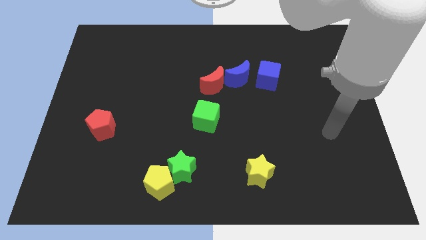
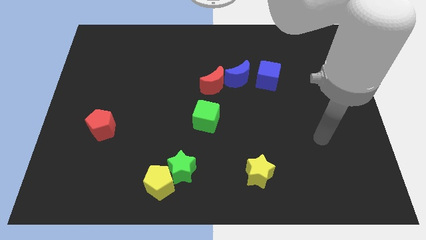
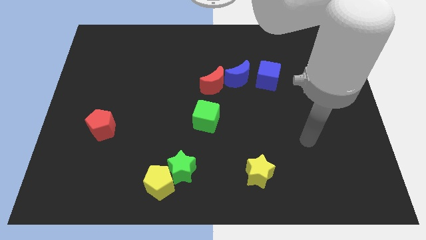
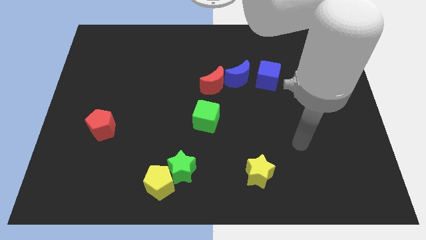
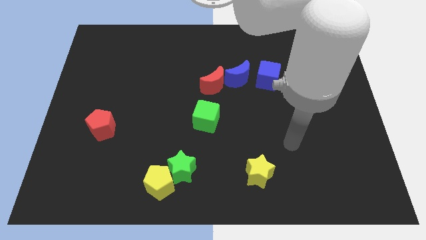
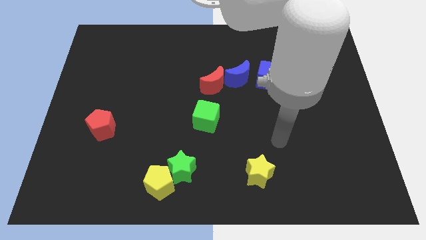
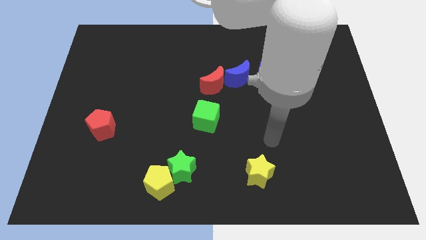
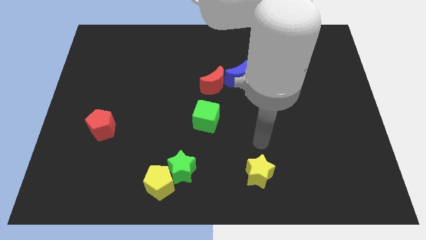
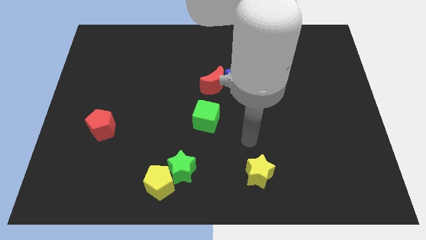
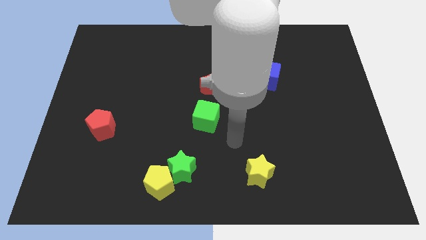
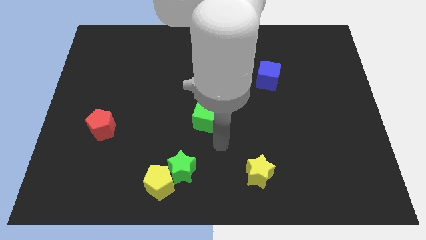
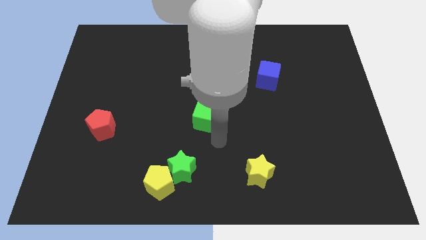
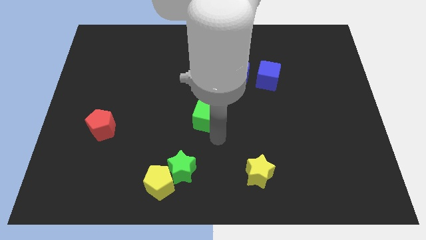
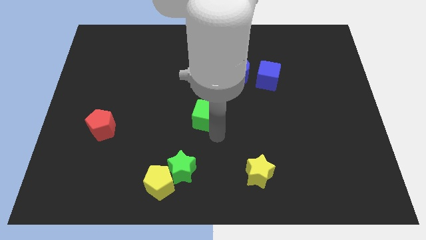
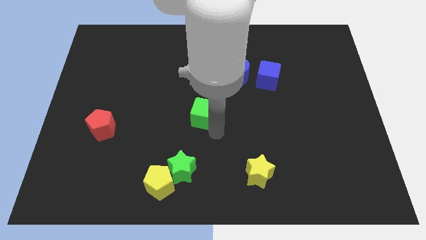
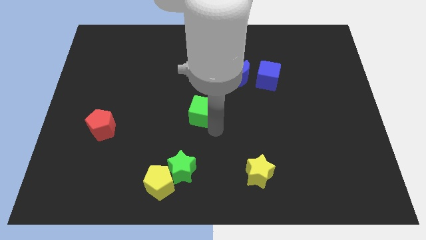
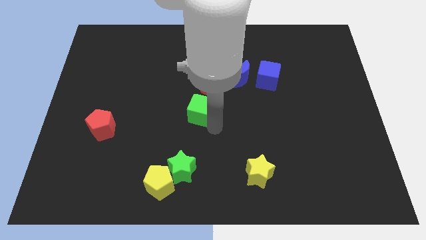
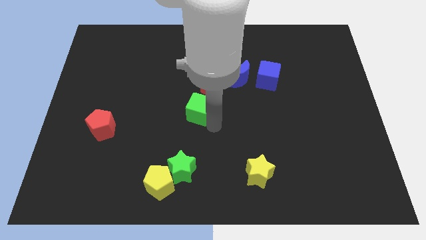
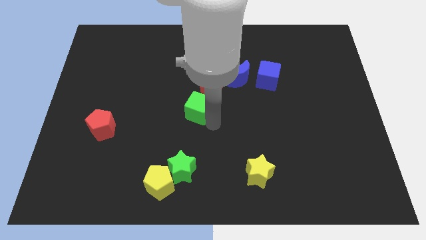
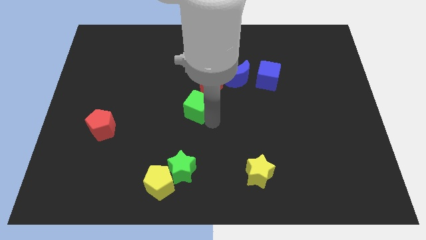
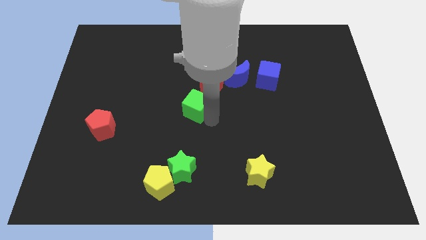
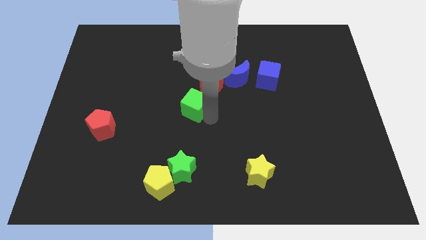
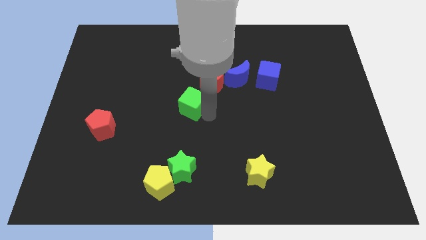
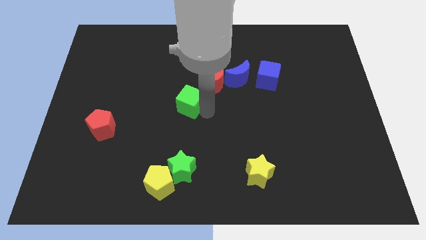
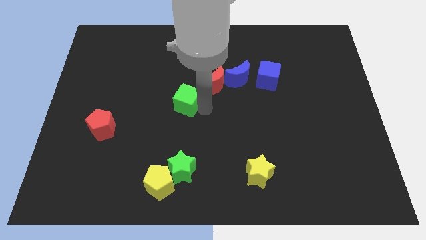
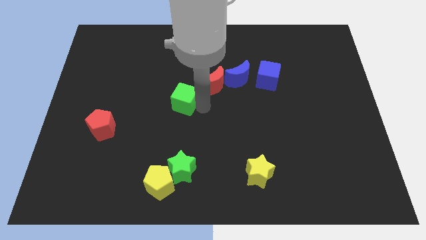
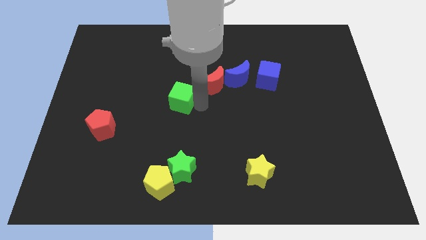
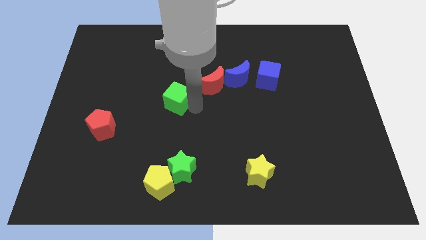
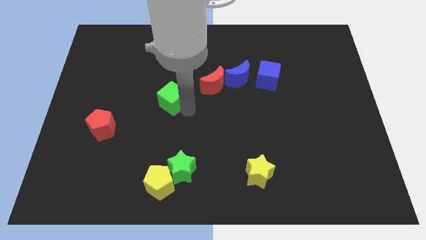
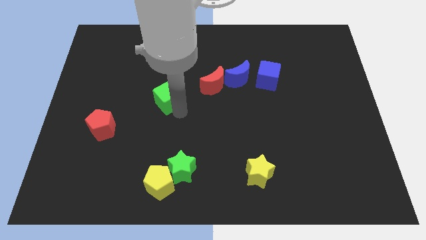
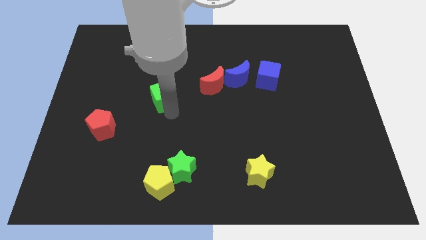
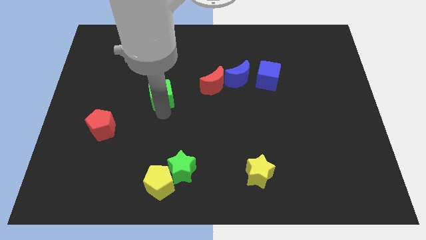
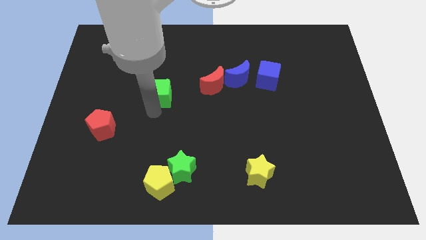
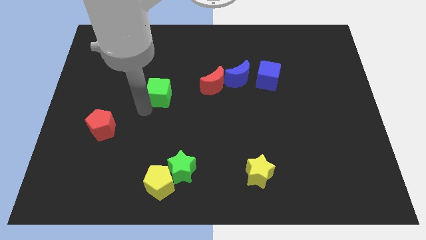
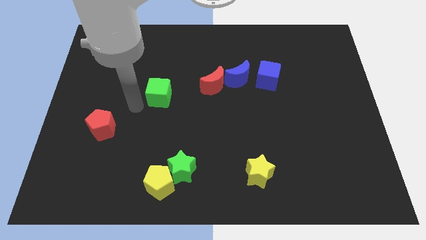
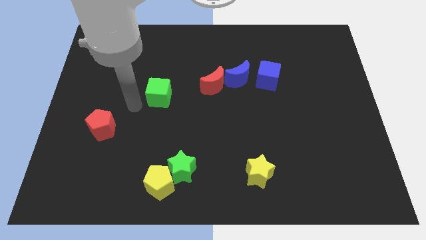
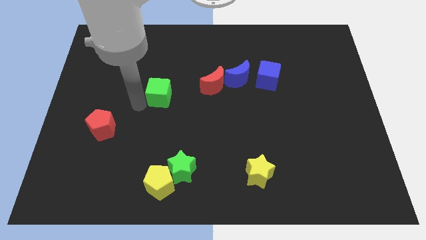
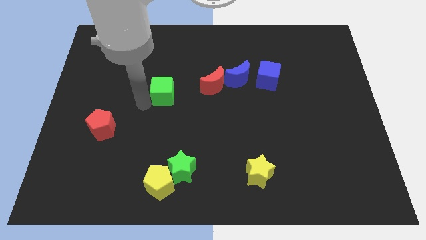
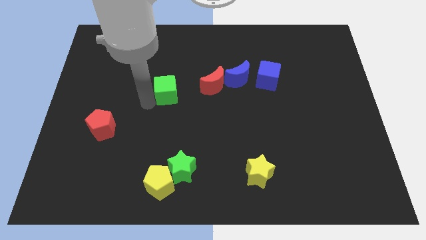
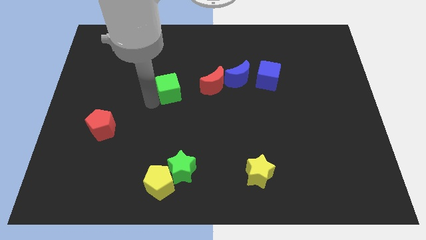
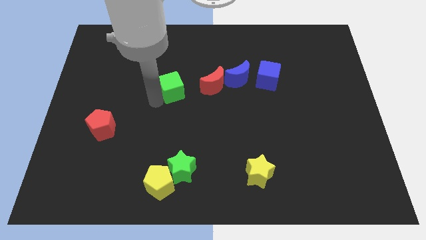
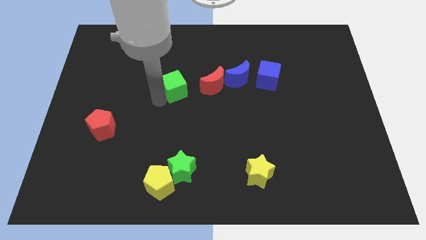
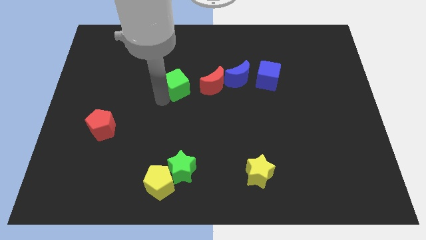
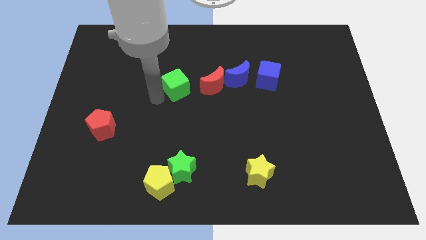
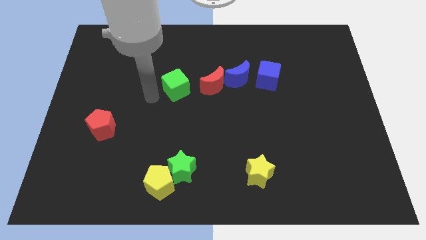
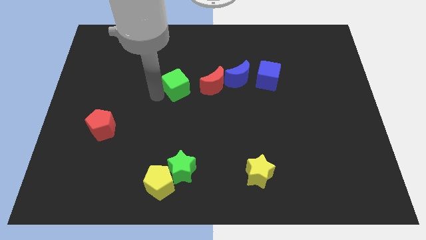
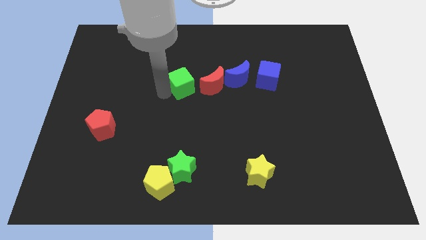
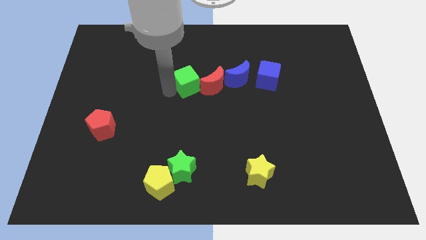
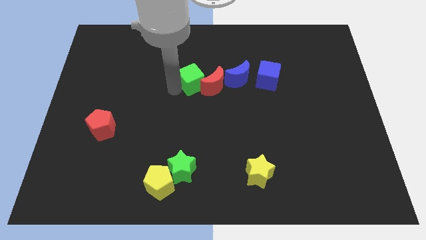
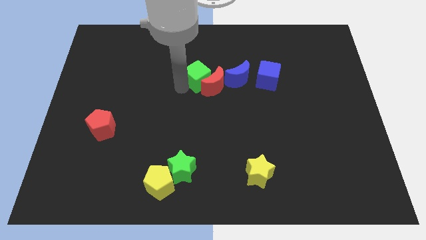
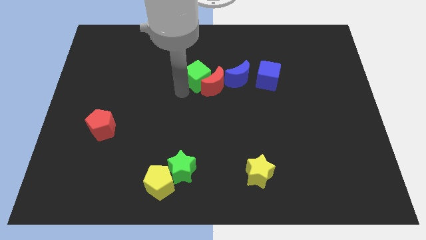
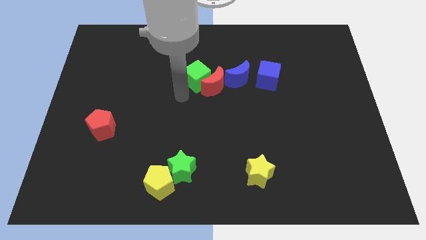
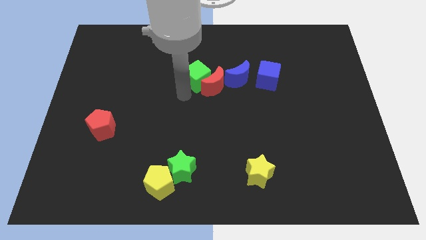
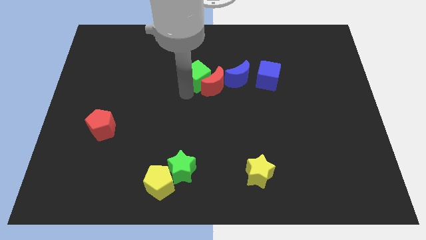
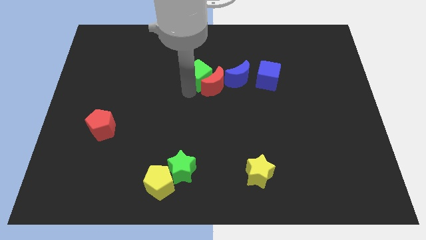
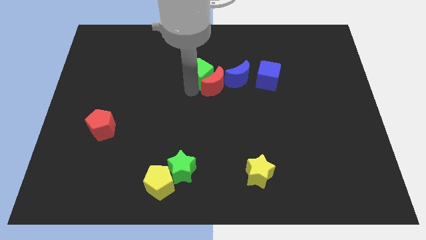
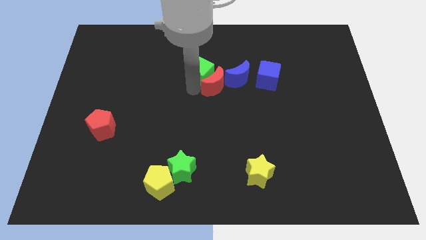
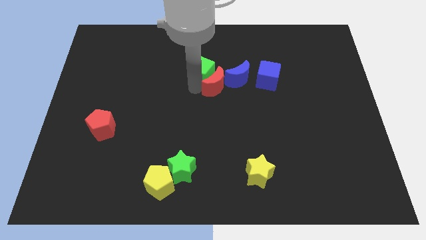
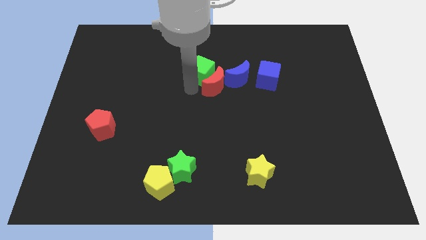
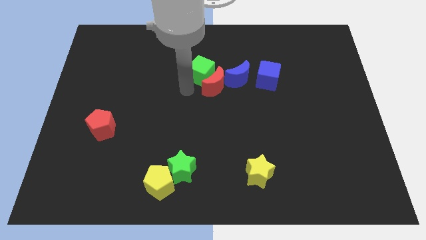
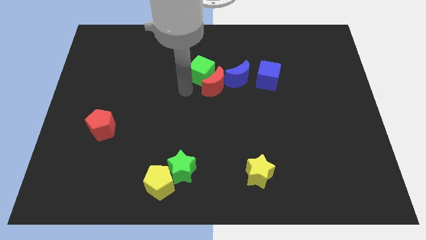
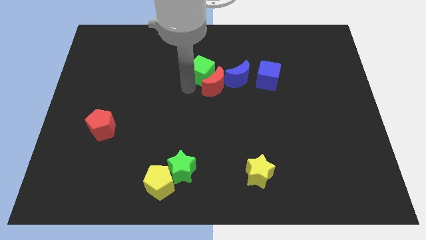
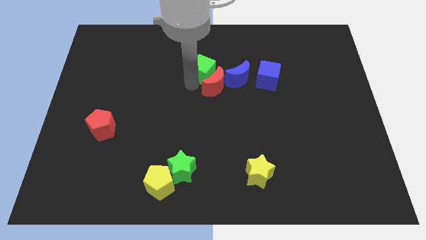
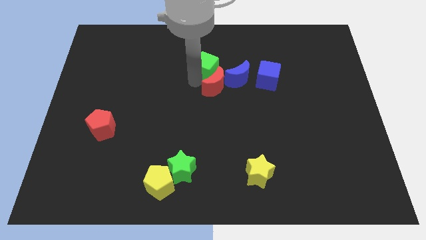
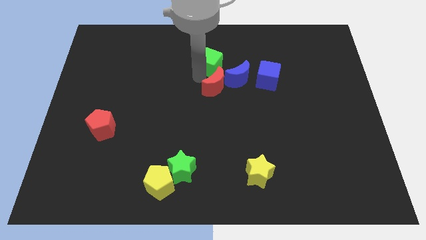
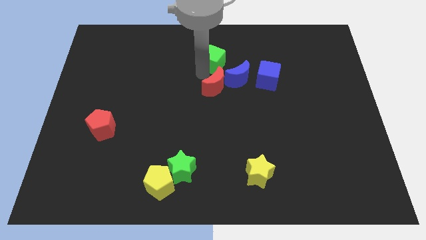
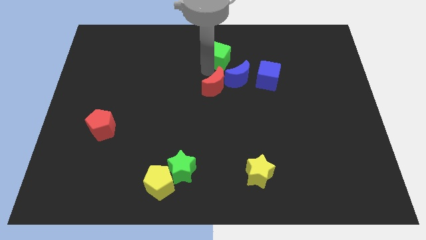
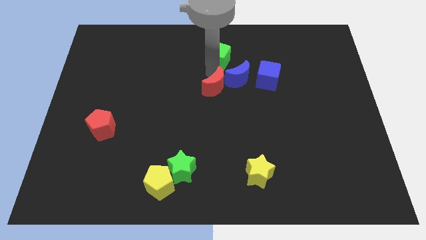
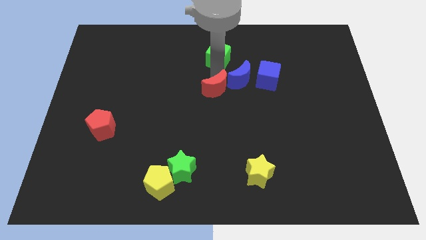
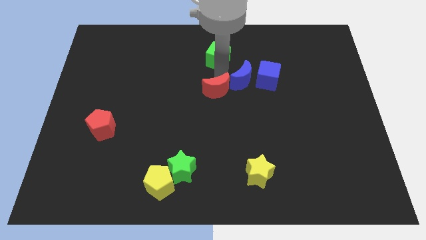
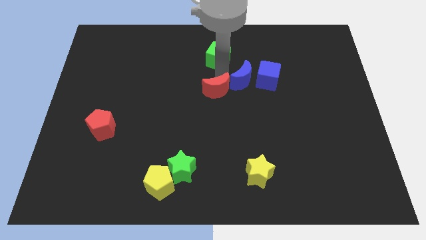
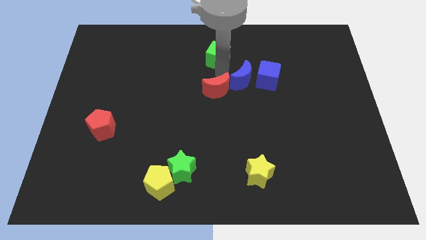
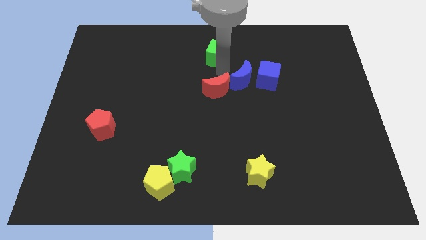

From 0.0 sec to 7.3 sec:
put the green cube to the top side
